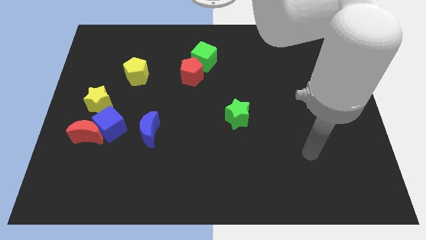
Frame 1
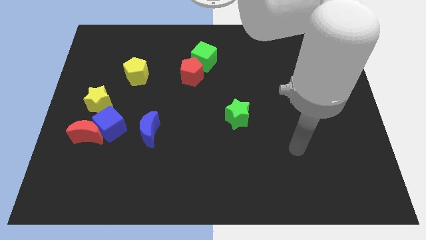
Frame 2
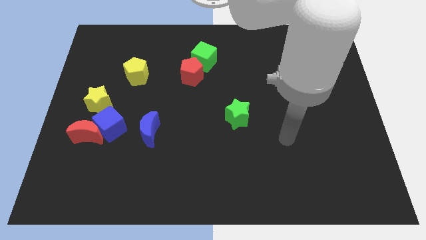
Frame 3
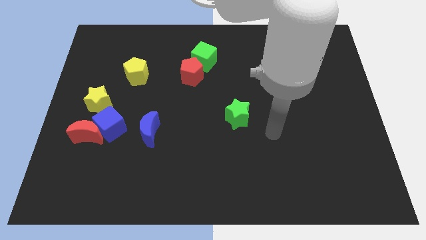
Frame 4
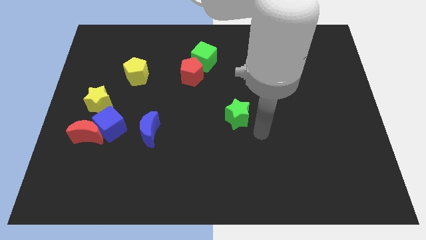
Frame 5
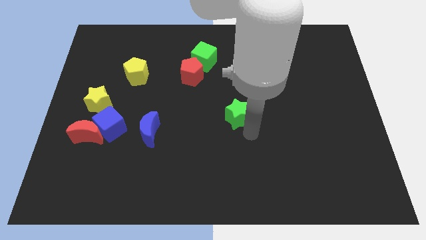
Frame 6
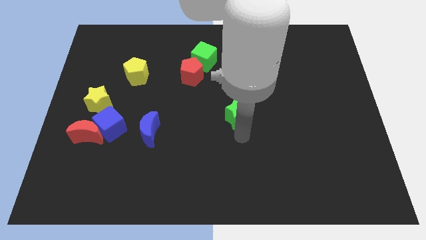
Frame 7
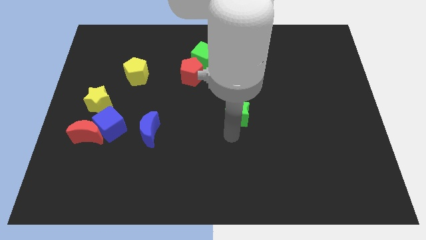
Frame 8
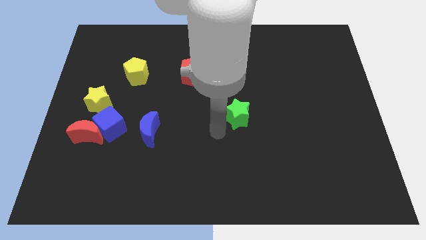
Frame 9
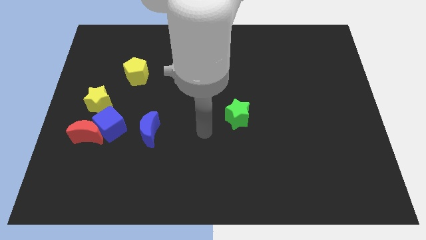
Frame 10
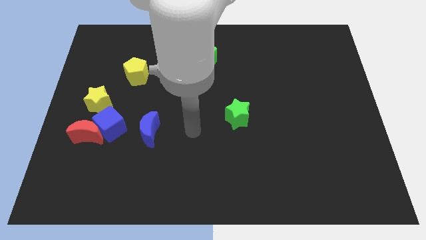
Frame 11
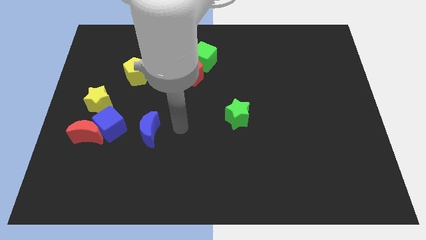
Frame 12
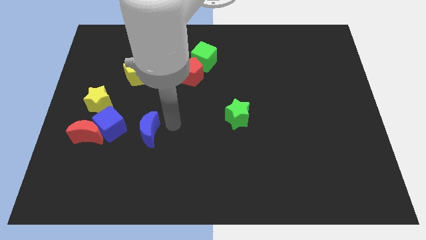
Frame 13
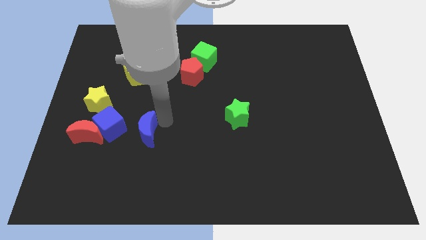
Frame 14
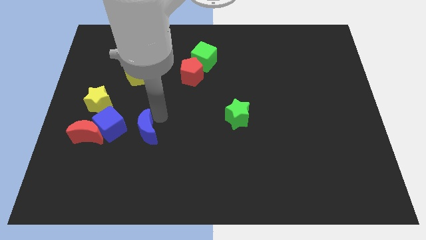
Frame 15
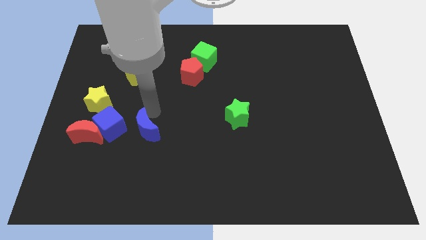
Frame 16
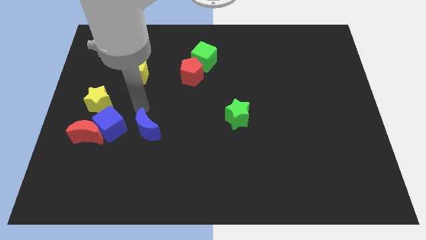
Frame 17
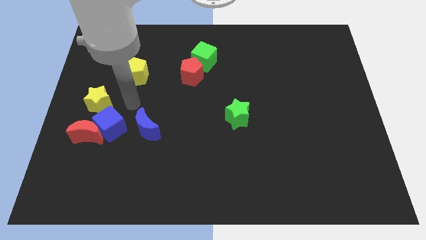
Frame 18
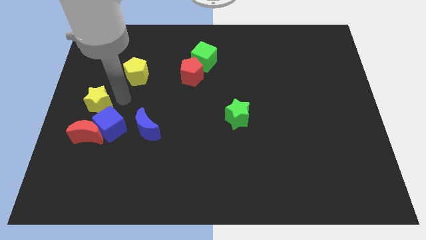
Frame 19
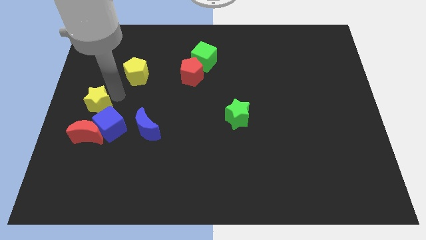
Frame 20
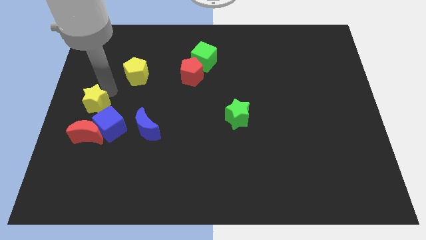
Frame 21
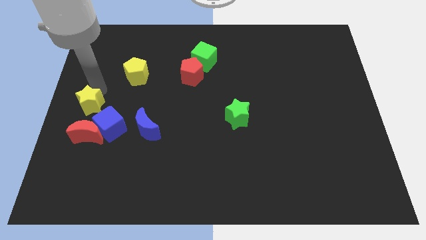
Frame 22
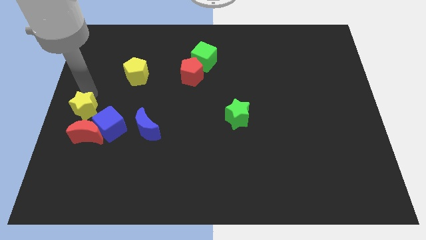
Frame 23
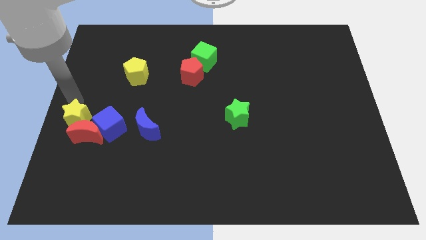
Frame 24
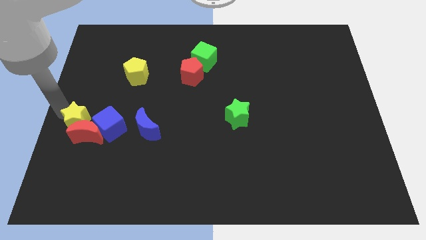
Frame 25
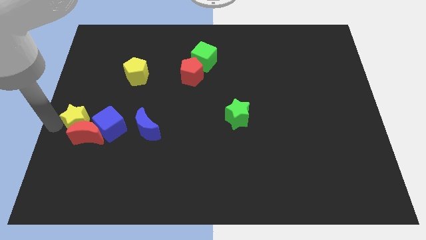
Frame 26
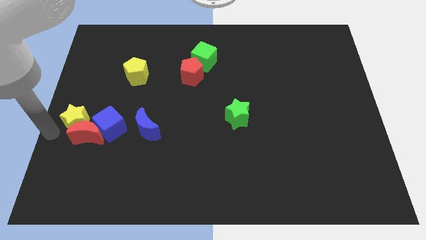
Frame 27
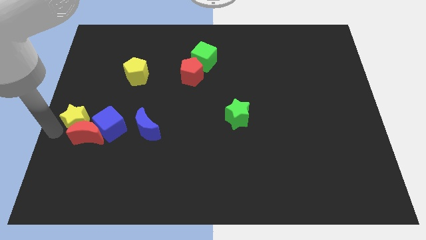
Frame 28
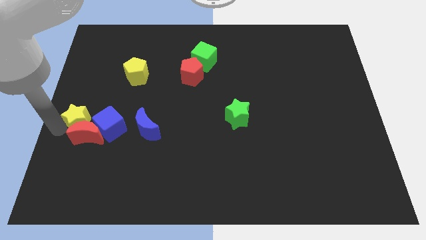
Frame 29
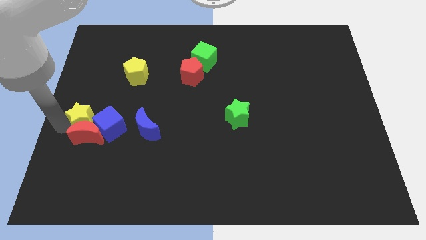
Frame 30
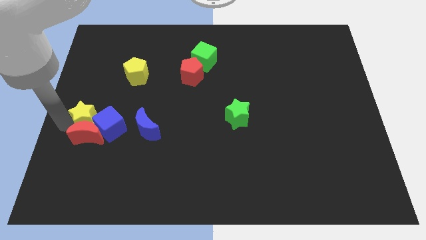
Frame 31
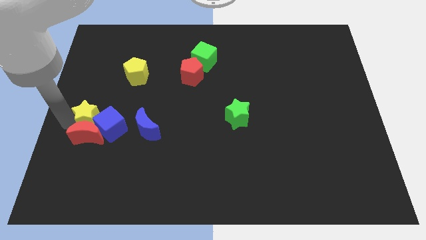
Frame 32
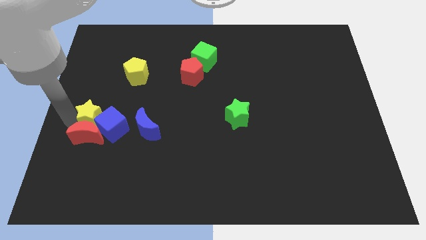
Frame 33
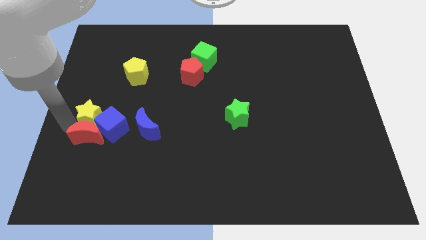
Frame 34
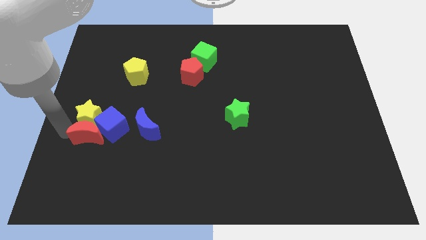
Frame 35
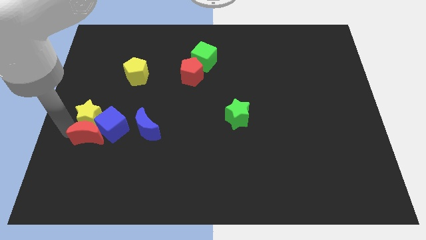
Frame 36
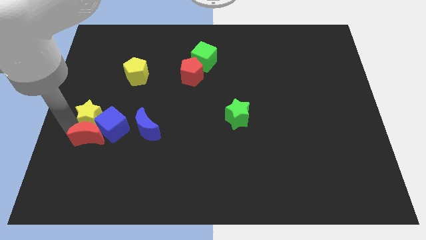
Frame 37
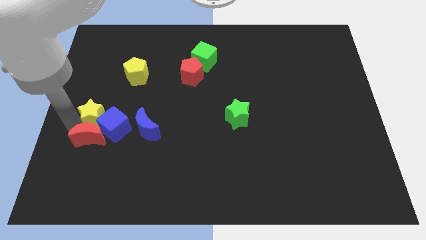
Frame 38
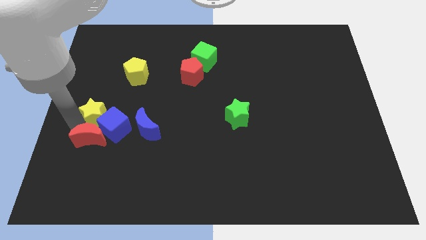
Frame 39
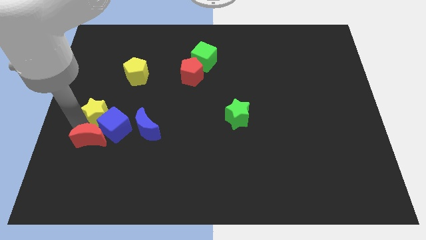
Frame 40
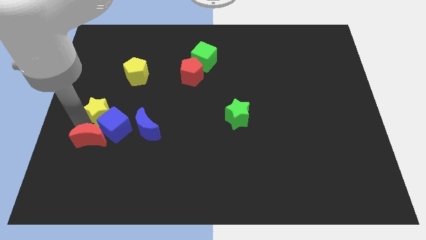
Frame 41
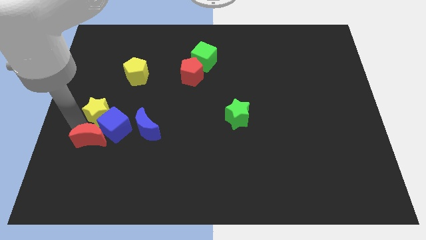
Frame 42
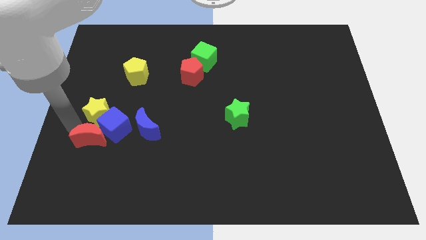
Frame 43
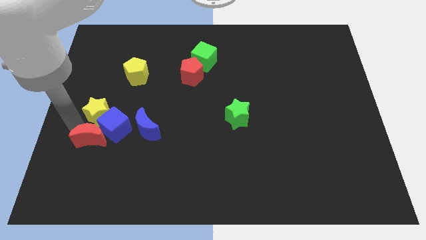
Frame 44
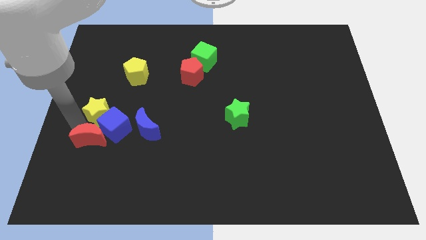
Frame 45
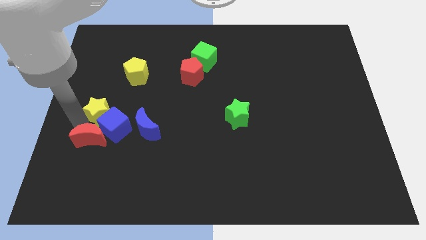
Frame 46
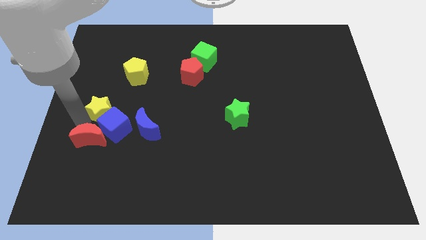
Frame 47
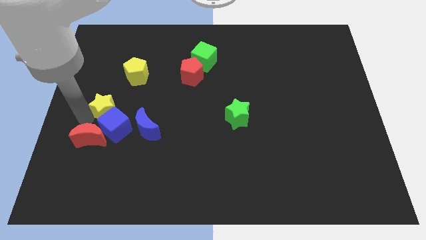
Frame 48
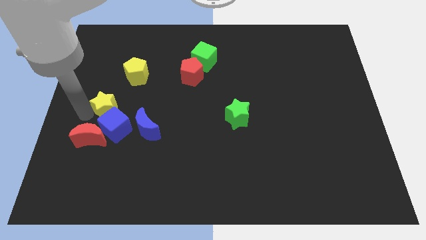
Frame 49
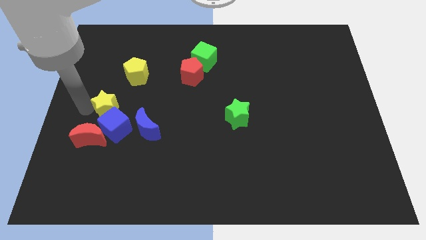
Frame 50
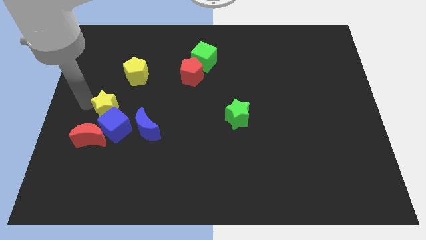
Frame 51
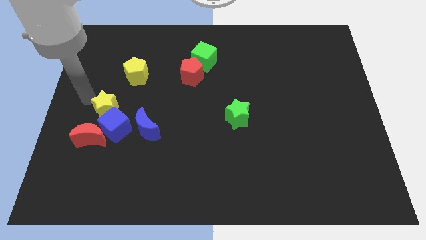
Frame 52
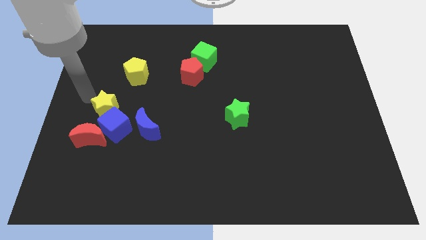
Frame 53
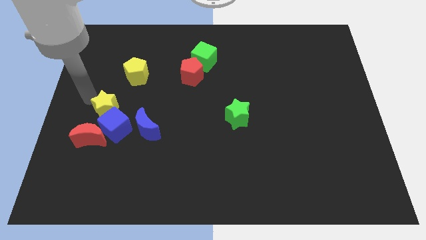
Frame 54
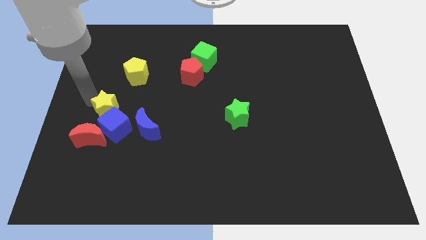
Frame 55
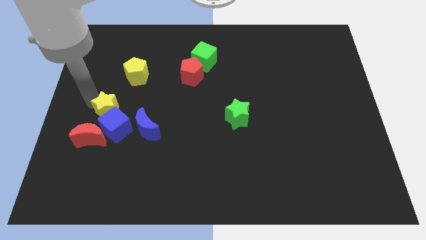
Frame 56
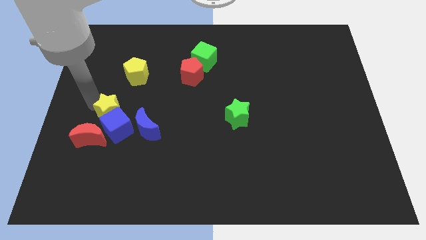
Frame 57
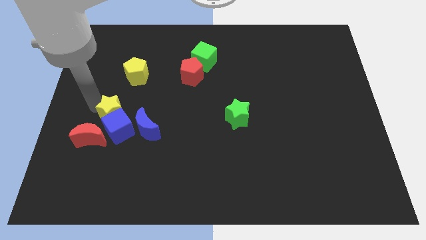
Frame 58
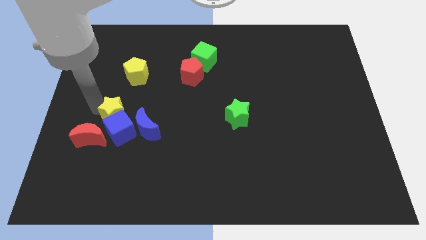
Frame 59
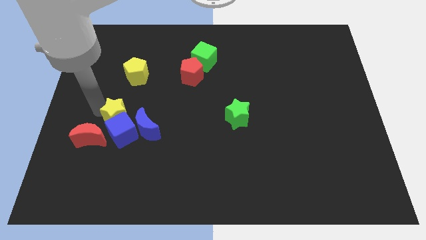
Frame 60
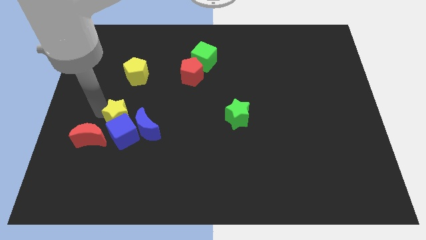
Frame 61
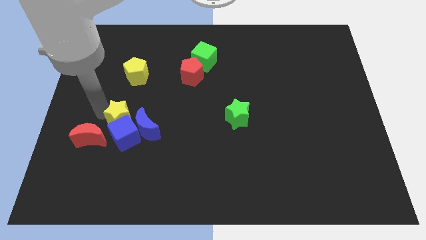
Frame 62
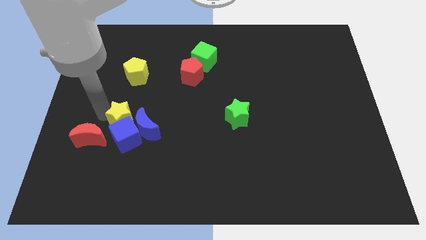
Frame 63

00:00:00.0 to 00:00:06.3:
slightly move the yellow star downwards and to the right

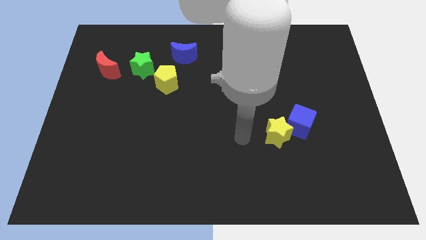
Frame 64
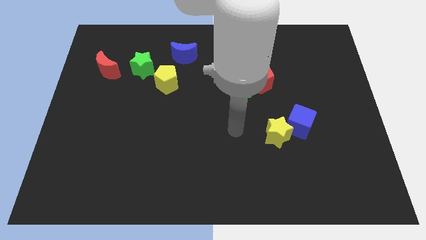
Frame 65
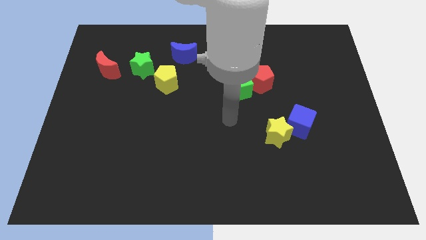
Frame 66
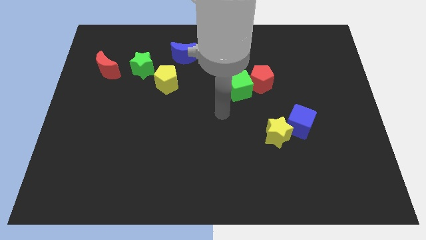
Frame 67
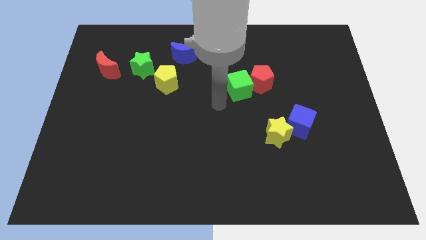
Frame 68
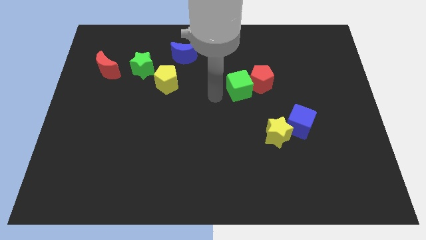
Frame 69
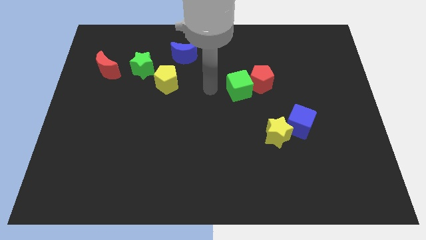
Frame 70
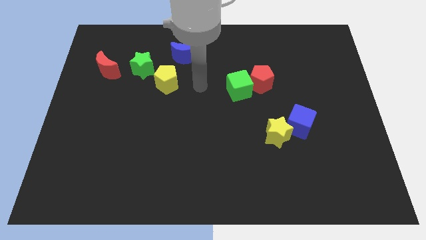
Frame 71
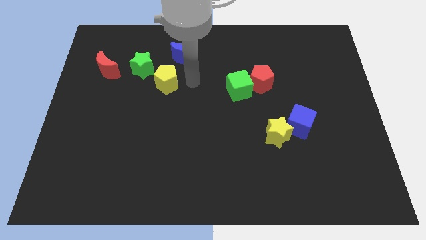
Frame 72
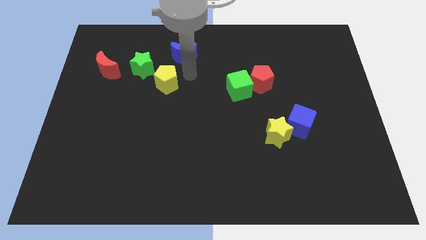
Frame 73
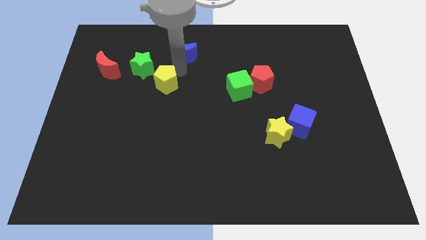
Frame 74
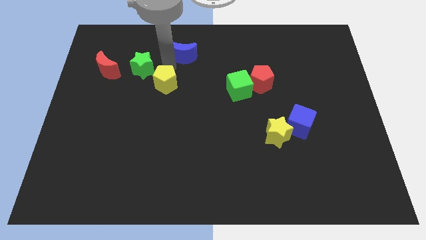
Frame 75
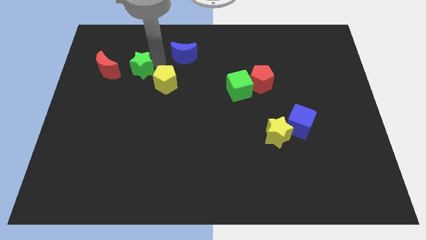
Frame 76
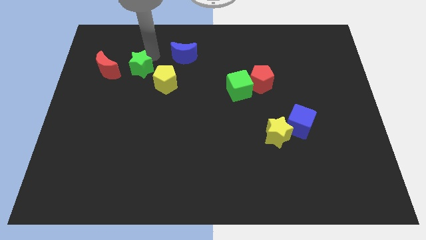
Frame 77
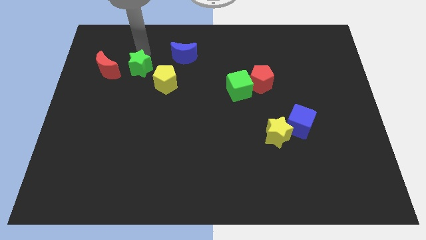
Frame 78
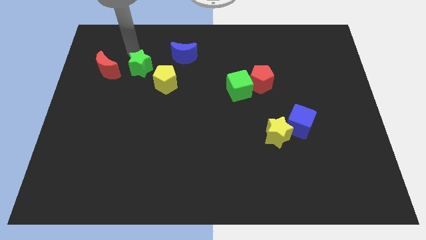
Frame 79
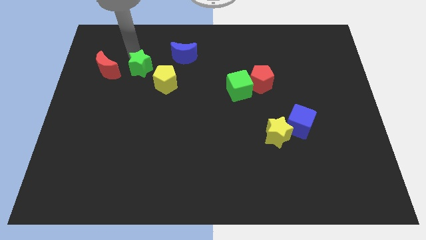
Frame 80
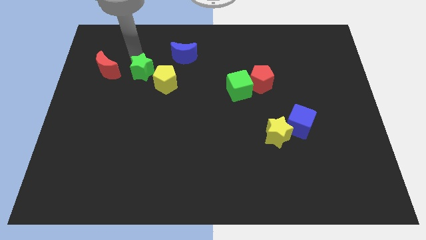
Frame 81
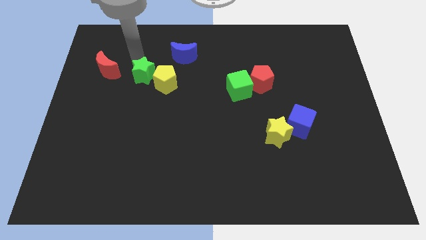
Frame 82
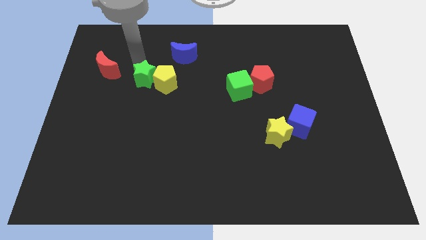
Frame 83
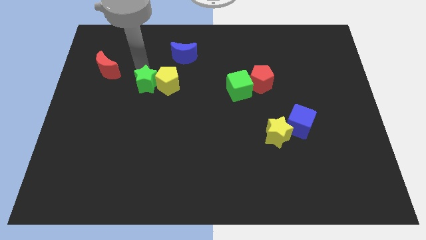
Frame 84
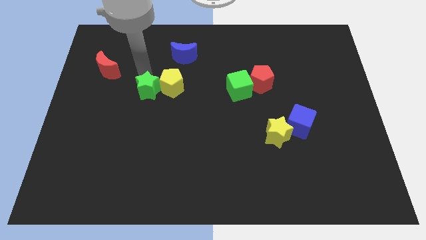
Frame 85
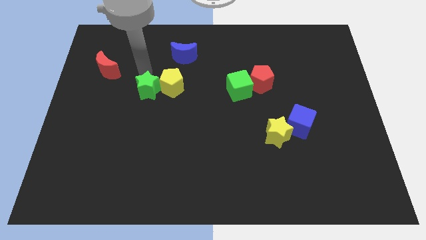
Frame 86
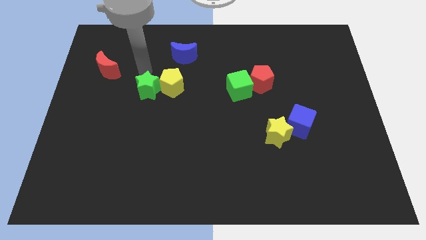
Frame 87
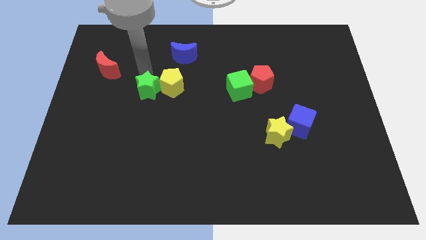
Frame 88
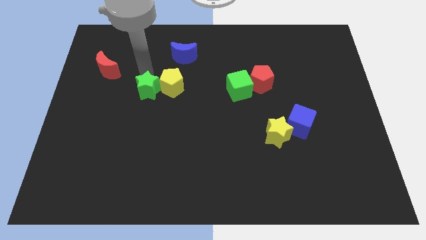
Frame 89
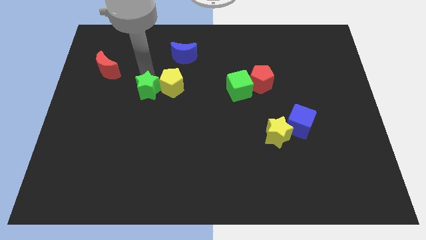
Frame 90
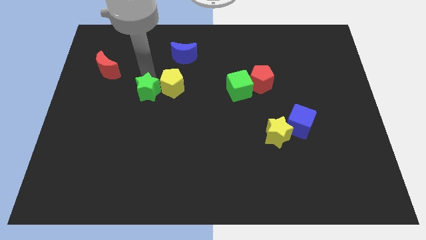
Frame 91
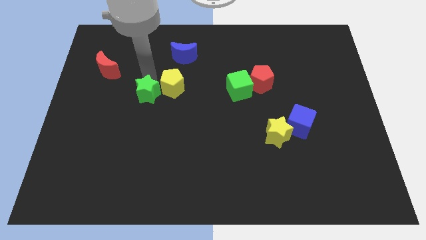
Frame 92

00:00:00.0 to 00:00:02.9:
move the green star down and to the right a little
